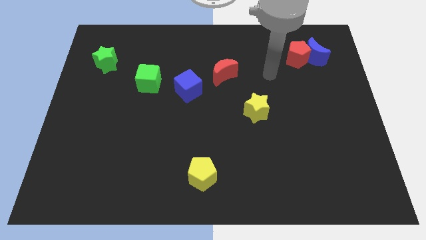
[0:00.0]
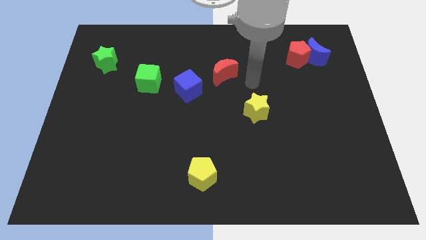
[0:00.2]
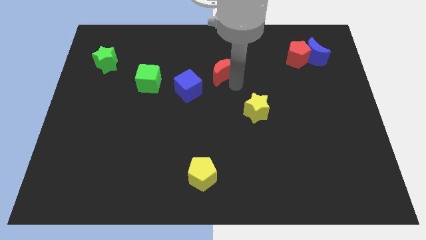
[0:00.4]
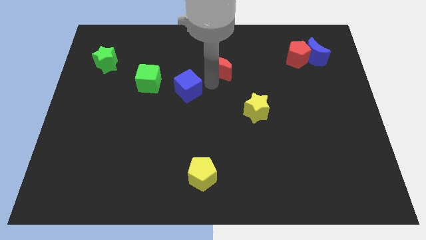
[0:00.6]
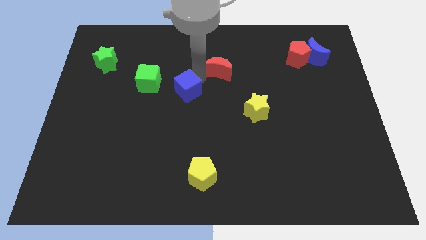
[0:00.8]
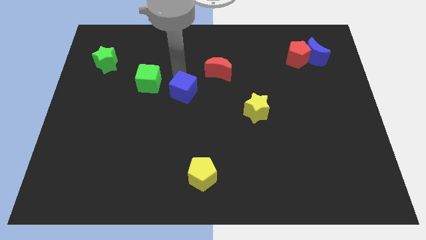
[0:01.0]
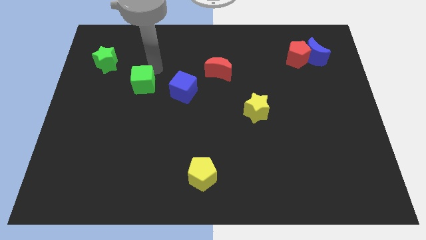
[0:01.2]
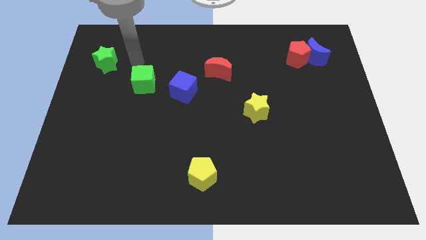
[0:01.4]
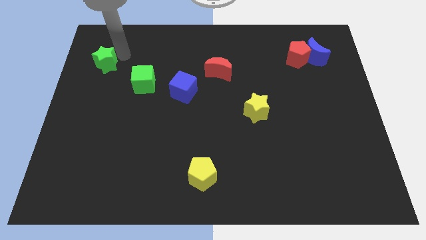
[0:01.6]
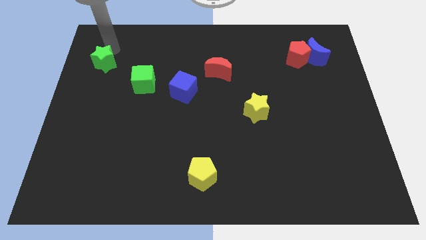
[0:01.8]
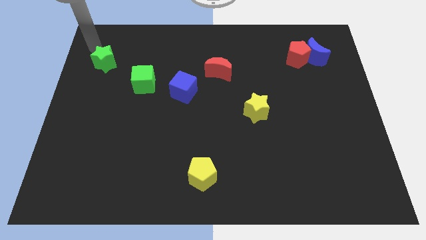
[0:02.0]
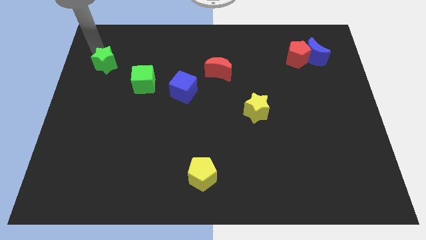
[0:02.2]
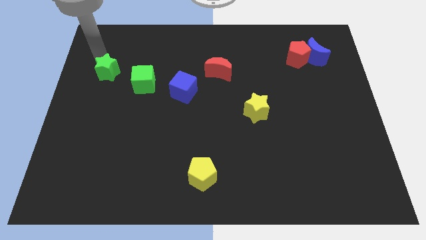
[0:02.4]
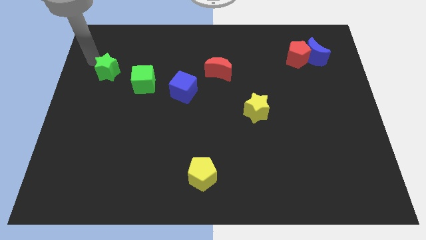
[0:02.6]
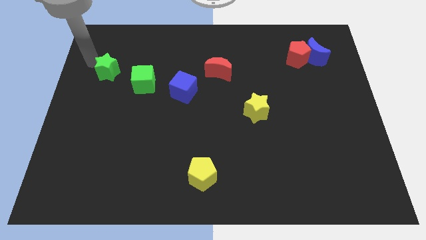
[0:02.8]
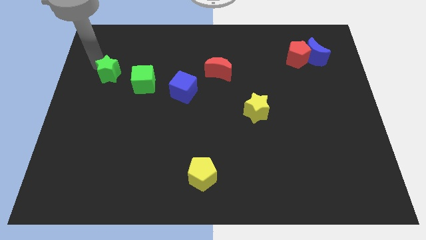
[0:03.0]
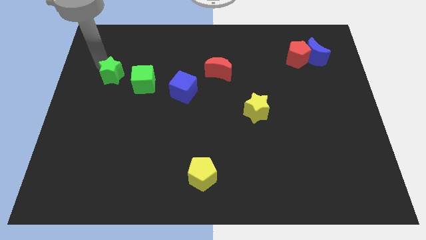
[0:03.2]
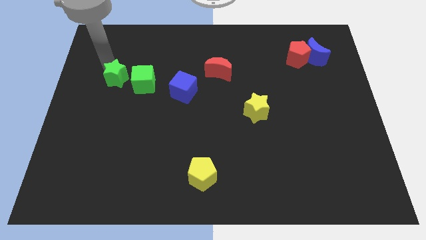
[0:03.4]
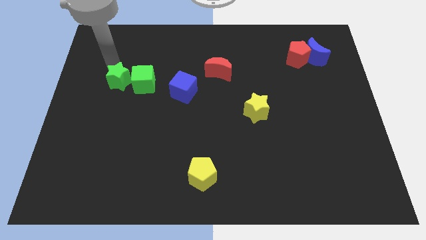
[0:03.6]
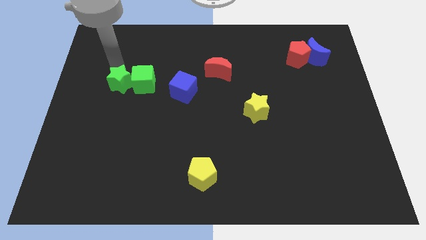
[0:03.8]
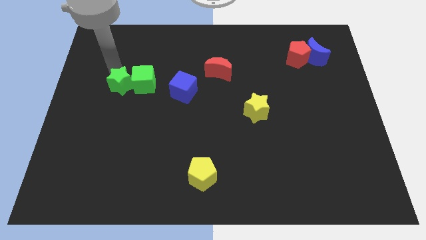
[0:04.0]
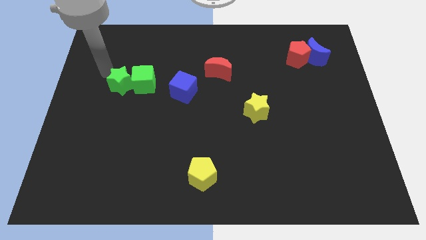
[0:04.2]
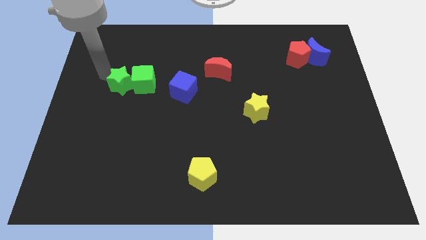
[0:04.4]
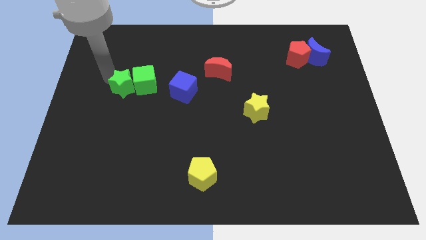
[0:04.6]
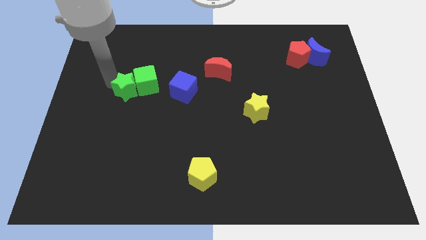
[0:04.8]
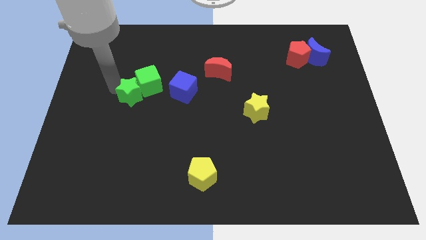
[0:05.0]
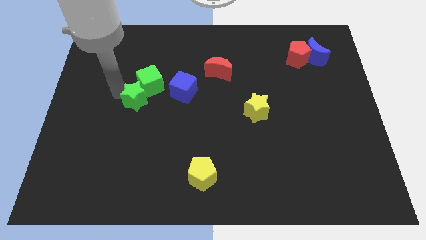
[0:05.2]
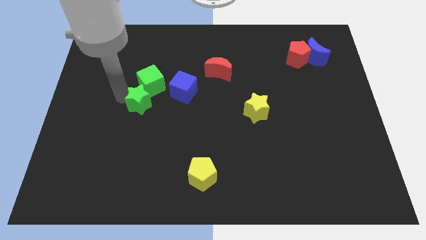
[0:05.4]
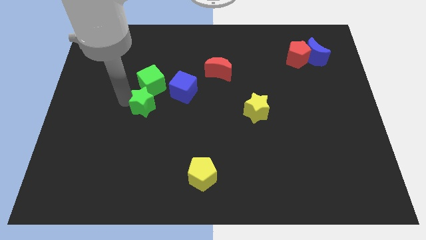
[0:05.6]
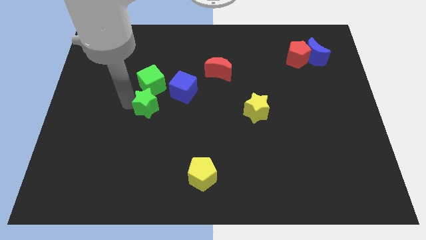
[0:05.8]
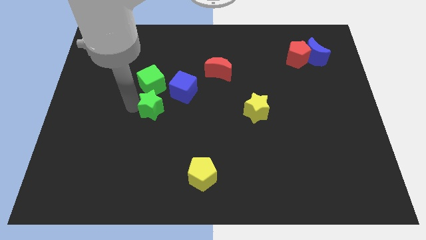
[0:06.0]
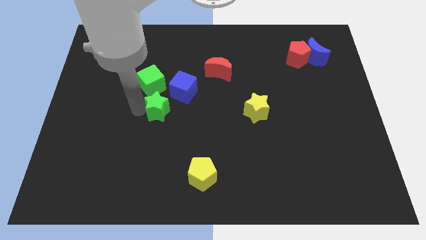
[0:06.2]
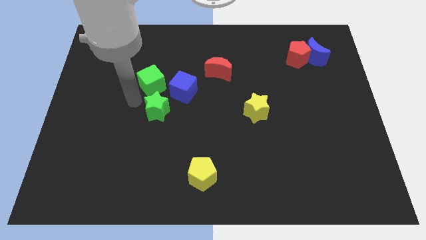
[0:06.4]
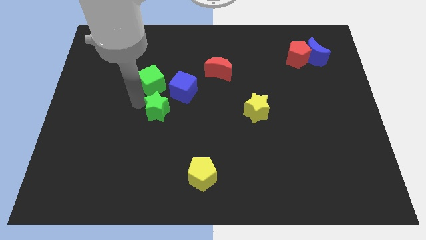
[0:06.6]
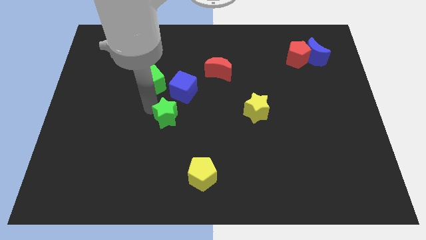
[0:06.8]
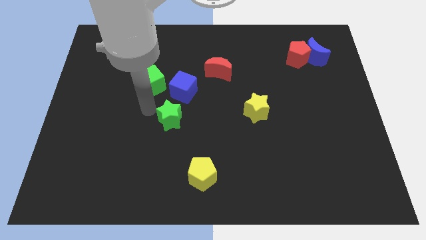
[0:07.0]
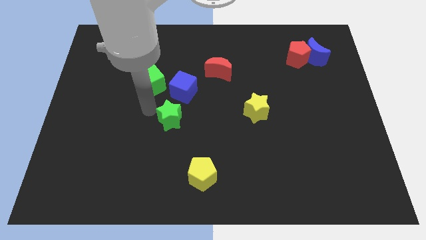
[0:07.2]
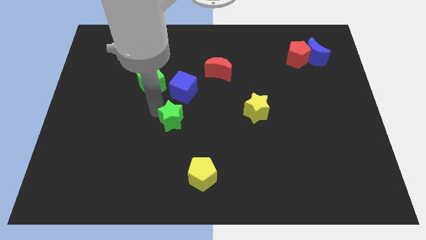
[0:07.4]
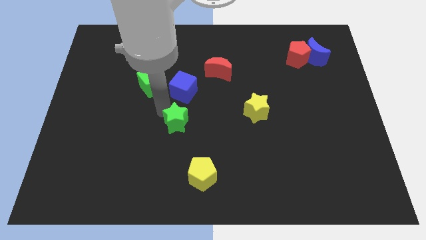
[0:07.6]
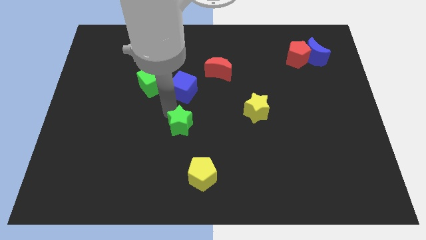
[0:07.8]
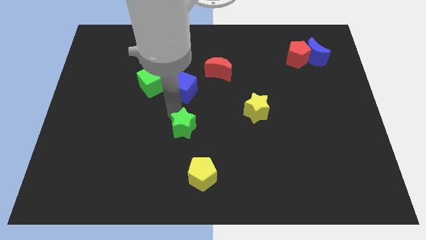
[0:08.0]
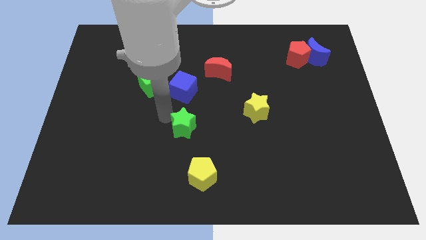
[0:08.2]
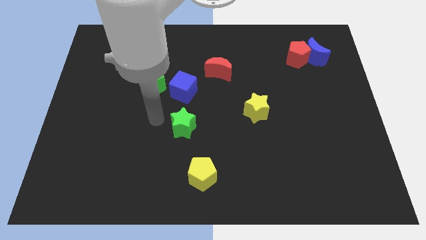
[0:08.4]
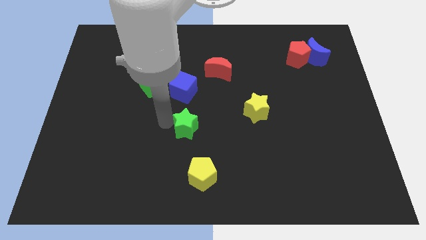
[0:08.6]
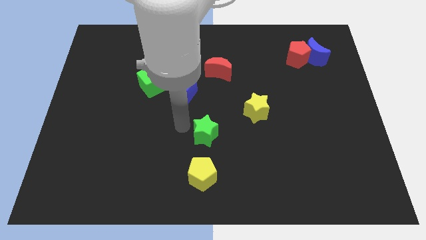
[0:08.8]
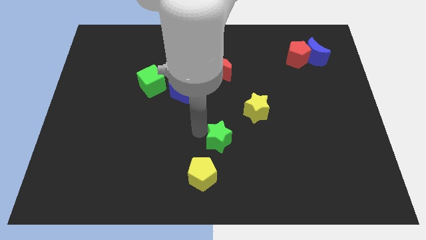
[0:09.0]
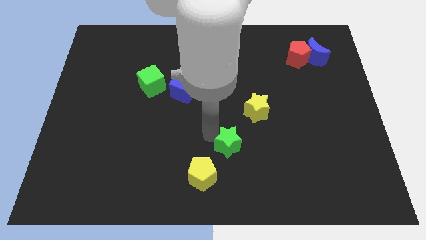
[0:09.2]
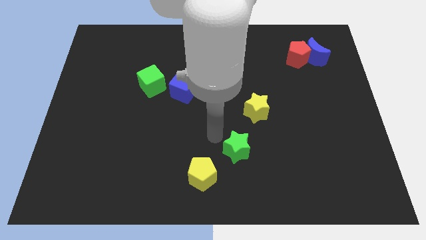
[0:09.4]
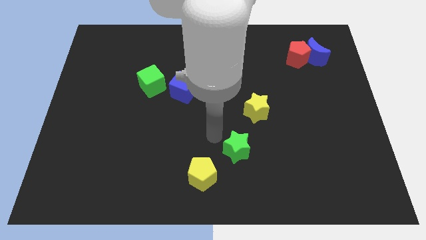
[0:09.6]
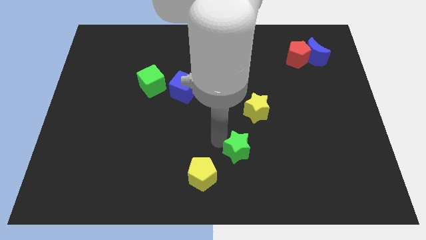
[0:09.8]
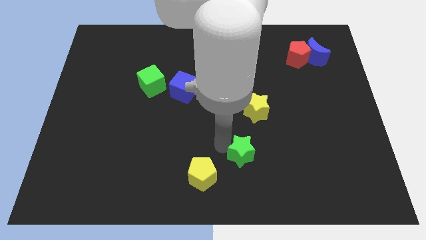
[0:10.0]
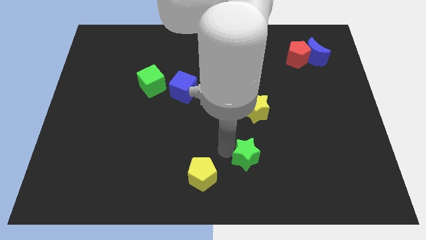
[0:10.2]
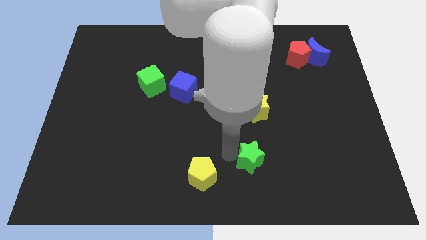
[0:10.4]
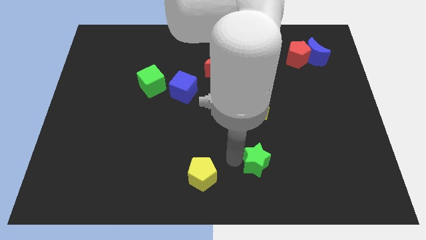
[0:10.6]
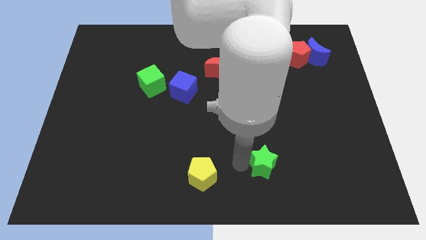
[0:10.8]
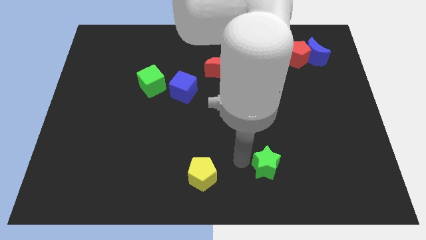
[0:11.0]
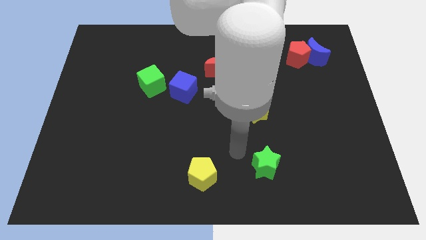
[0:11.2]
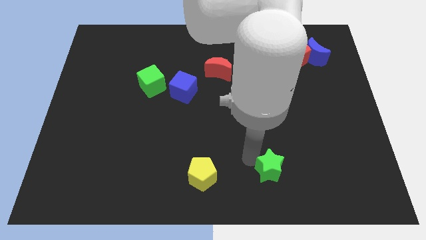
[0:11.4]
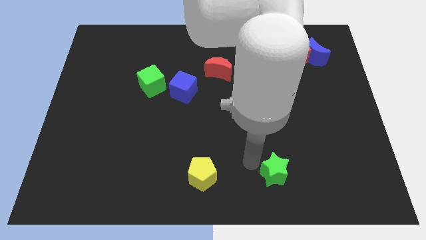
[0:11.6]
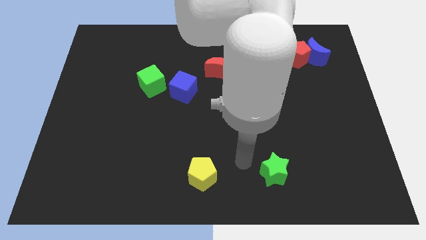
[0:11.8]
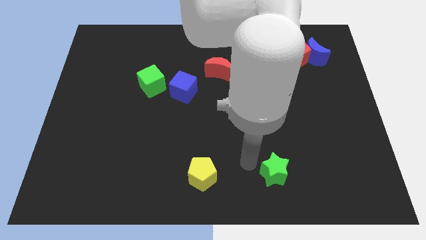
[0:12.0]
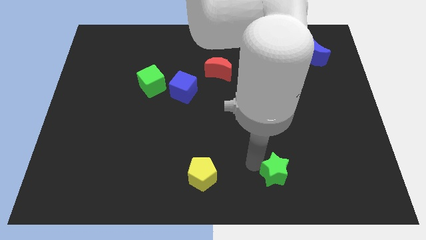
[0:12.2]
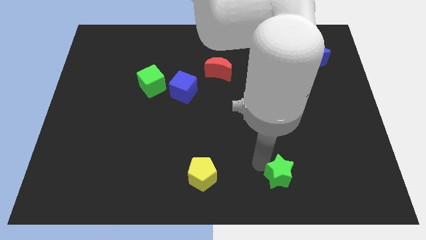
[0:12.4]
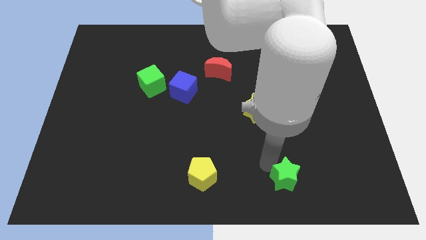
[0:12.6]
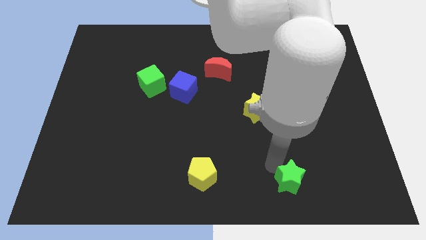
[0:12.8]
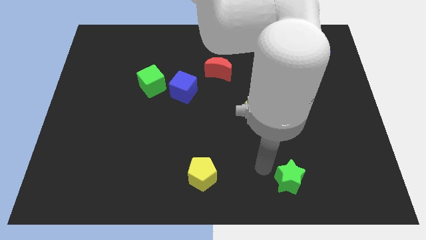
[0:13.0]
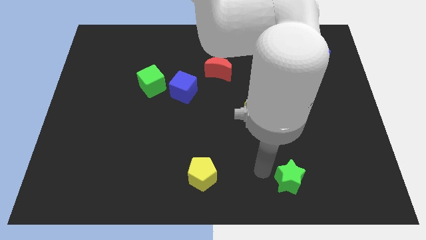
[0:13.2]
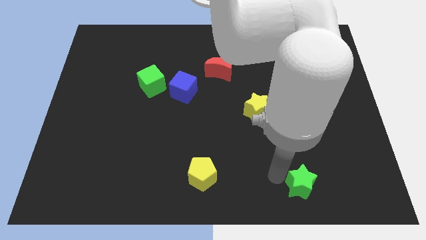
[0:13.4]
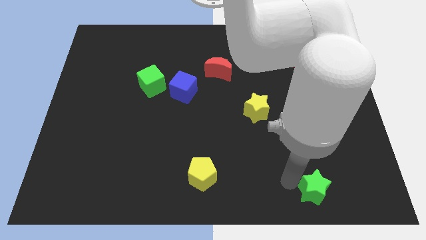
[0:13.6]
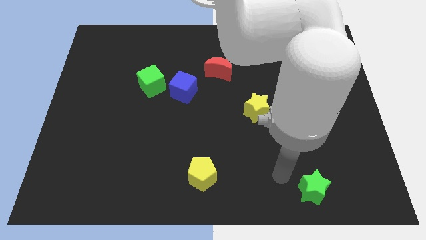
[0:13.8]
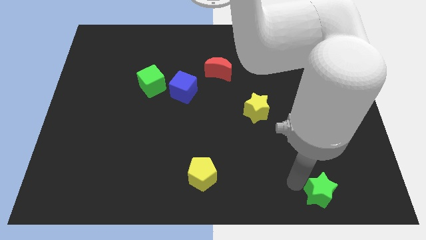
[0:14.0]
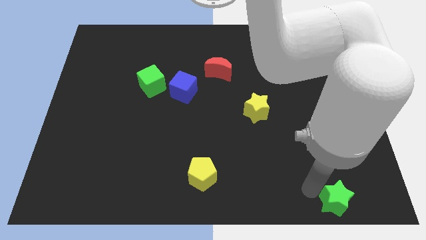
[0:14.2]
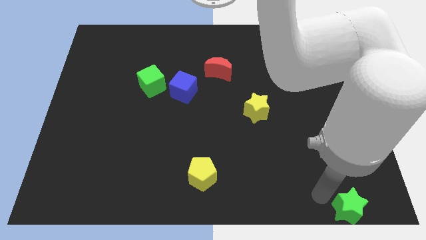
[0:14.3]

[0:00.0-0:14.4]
put the green star to the bottom right of the board
